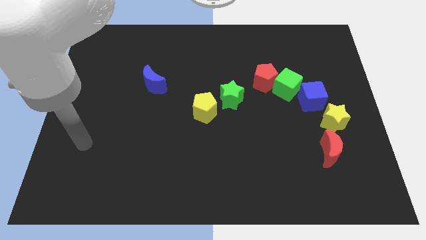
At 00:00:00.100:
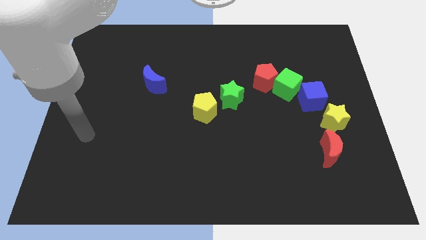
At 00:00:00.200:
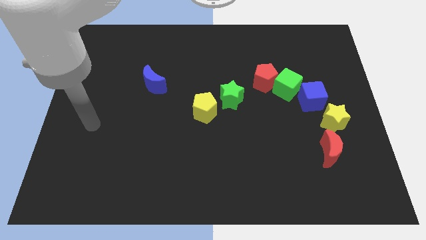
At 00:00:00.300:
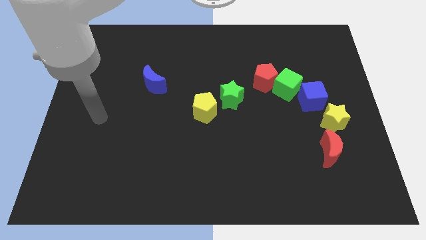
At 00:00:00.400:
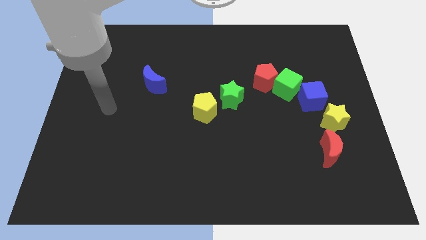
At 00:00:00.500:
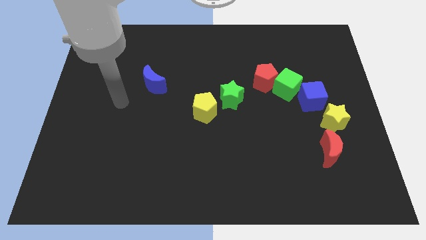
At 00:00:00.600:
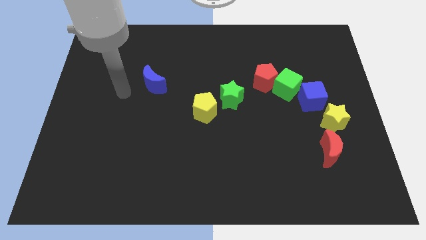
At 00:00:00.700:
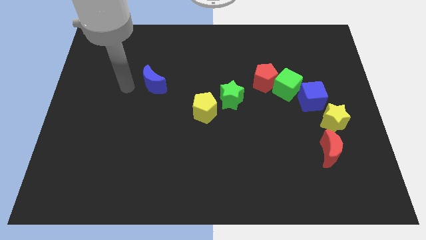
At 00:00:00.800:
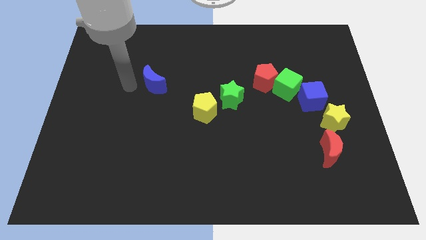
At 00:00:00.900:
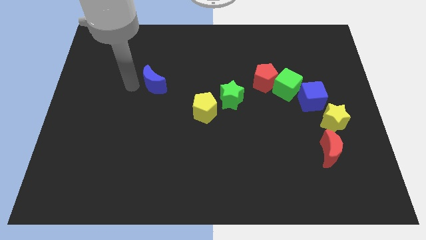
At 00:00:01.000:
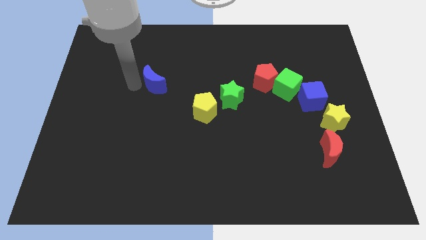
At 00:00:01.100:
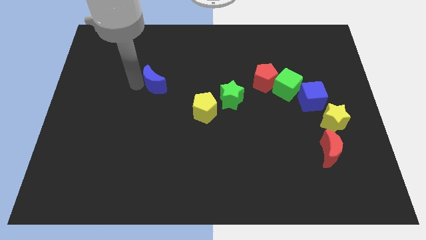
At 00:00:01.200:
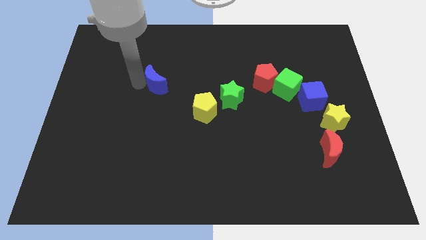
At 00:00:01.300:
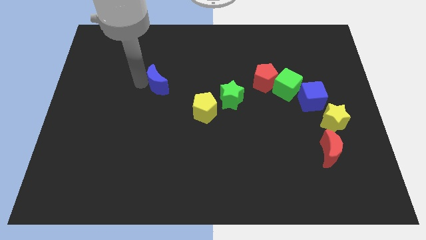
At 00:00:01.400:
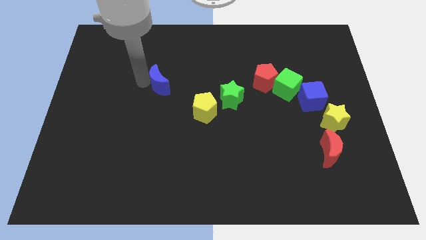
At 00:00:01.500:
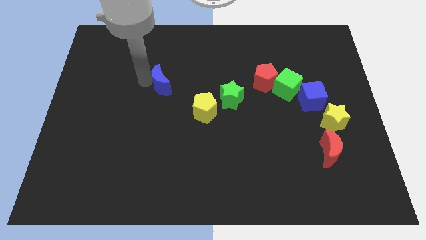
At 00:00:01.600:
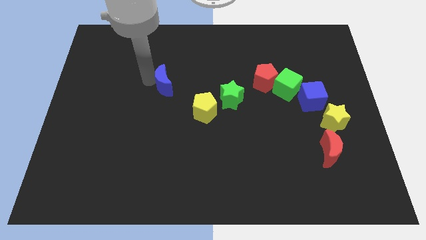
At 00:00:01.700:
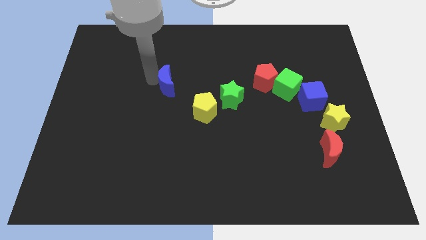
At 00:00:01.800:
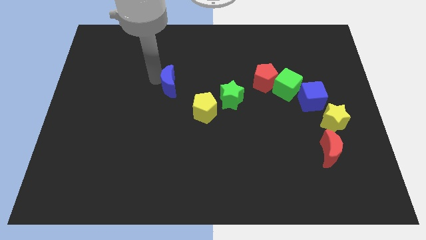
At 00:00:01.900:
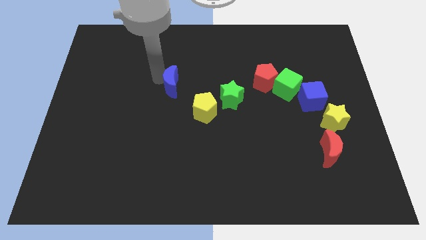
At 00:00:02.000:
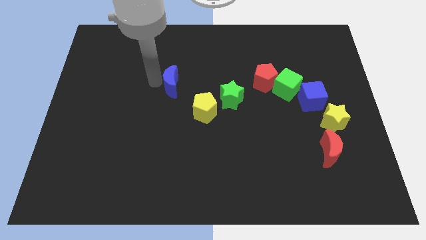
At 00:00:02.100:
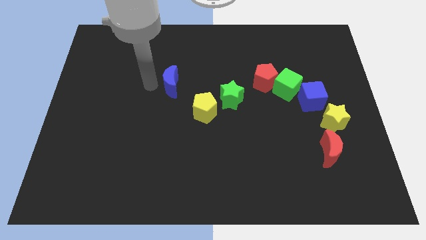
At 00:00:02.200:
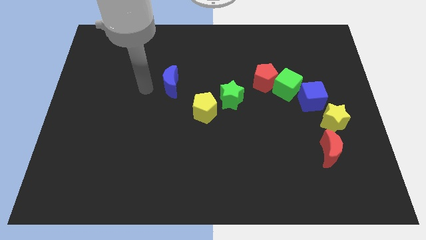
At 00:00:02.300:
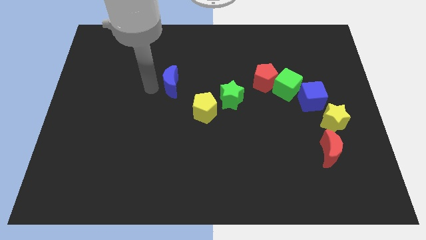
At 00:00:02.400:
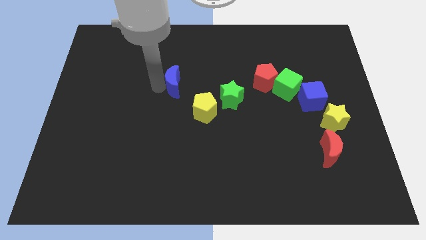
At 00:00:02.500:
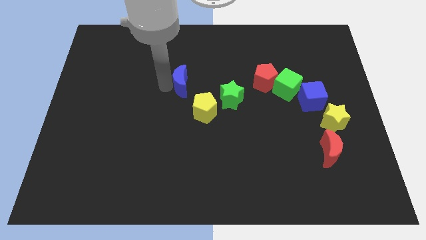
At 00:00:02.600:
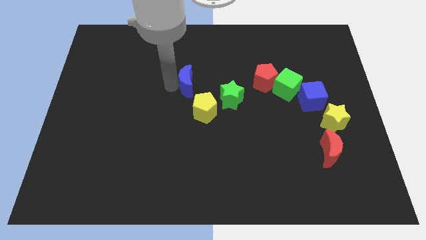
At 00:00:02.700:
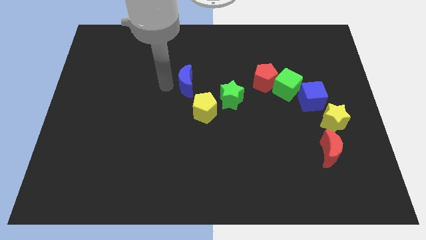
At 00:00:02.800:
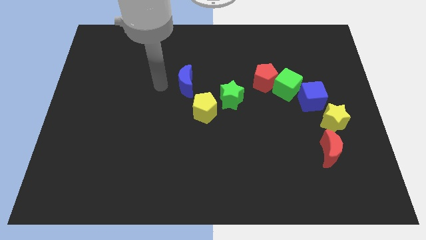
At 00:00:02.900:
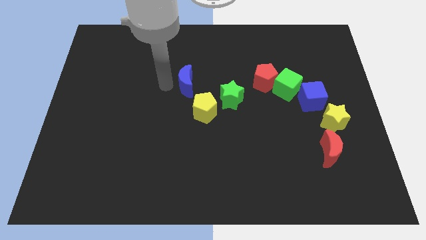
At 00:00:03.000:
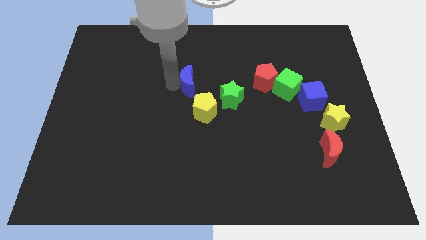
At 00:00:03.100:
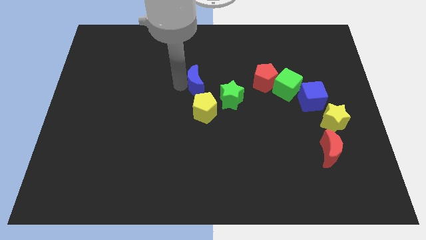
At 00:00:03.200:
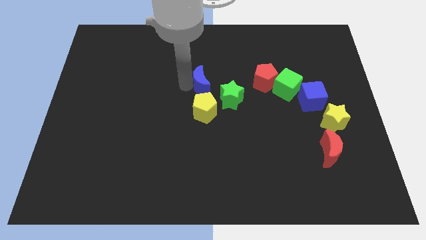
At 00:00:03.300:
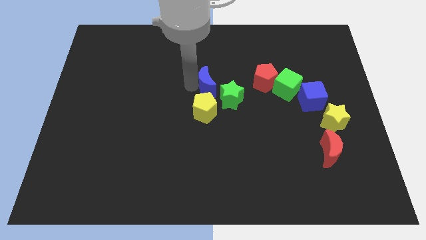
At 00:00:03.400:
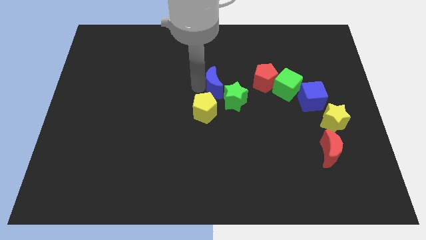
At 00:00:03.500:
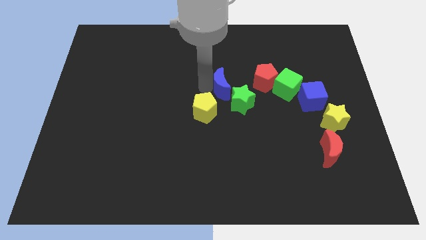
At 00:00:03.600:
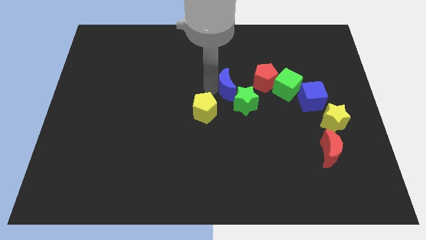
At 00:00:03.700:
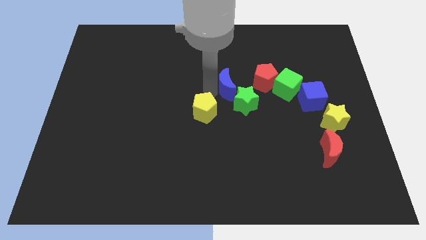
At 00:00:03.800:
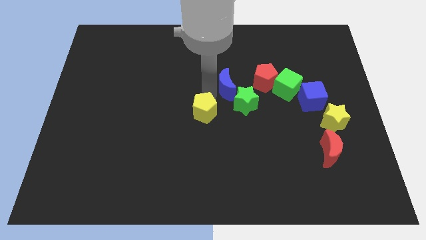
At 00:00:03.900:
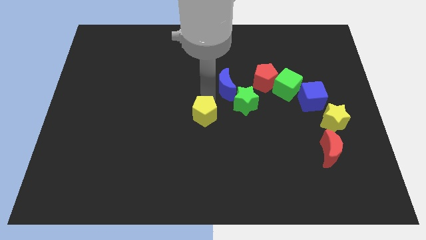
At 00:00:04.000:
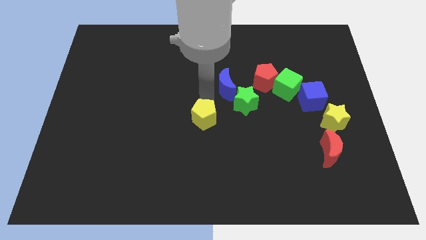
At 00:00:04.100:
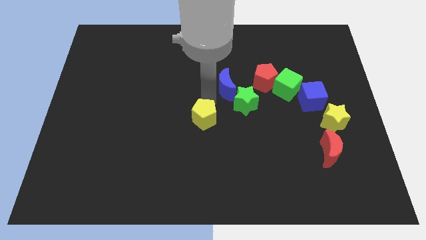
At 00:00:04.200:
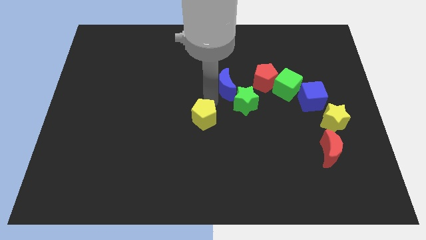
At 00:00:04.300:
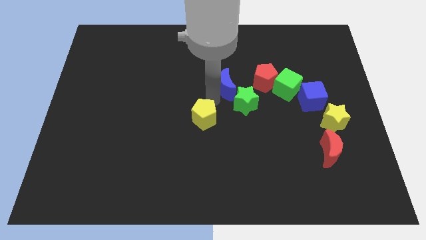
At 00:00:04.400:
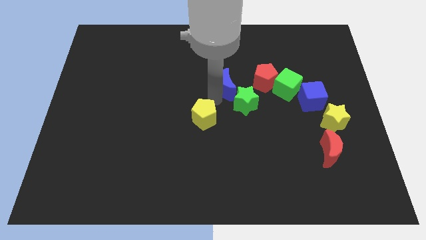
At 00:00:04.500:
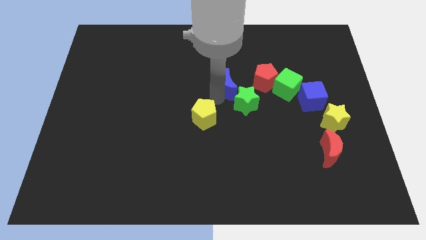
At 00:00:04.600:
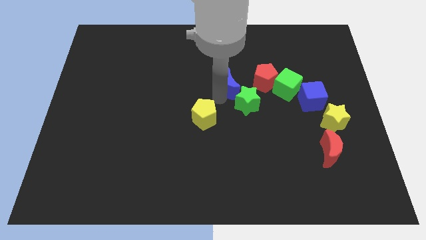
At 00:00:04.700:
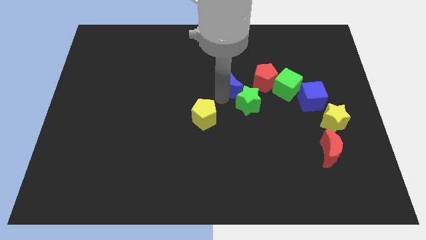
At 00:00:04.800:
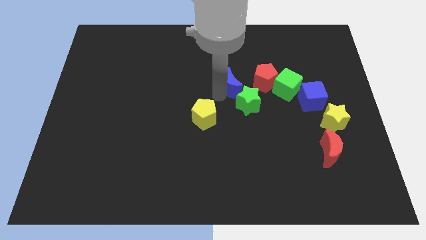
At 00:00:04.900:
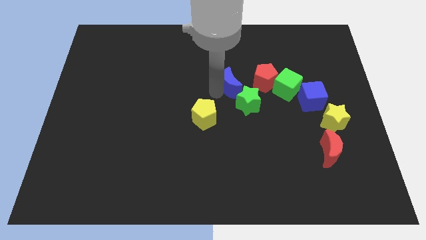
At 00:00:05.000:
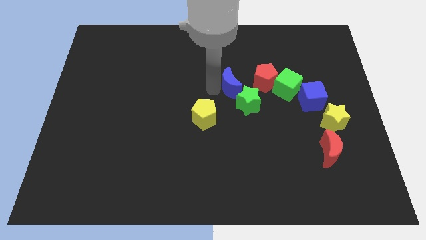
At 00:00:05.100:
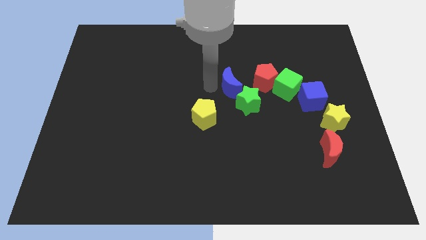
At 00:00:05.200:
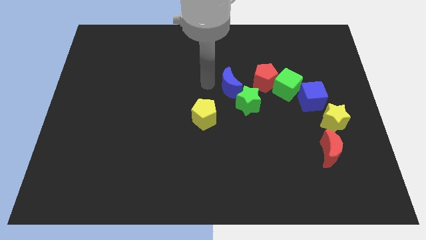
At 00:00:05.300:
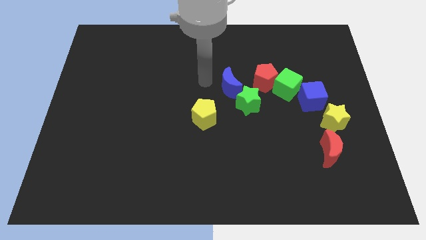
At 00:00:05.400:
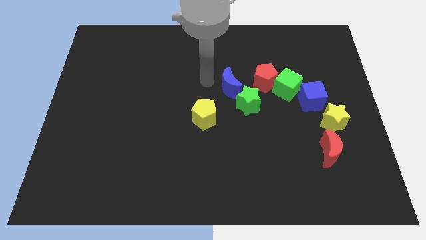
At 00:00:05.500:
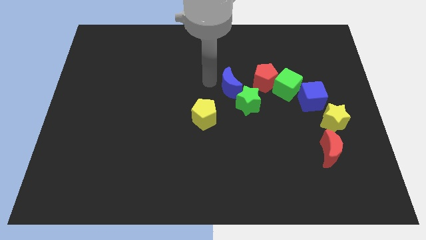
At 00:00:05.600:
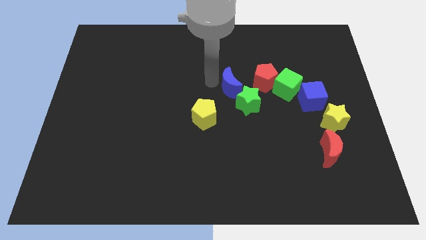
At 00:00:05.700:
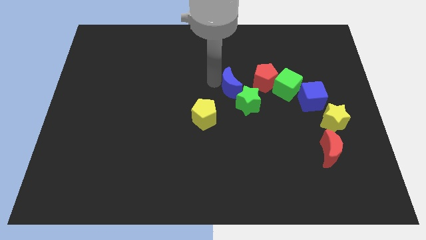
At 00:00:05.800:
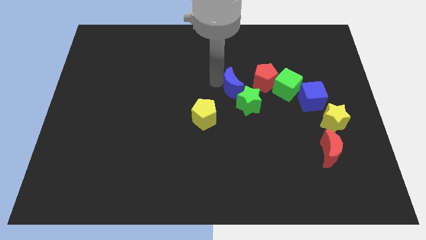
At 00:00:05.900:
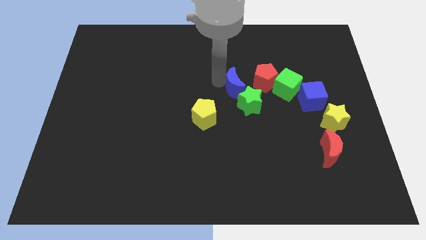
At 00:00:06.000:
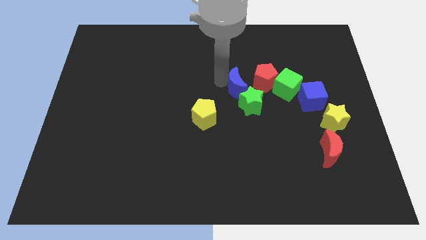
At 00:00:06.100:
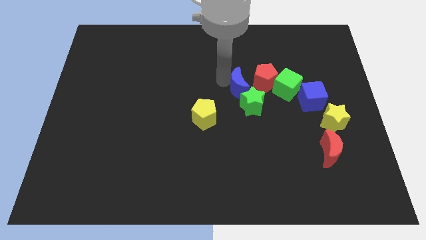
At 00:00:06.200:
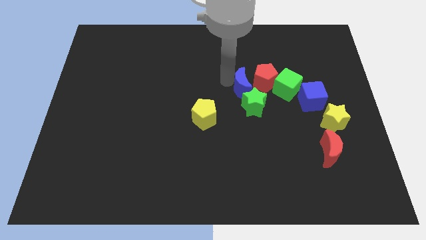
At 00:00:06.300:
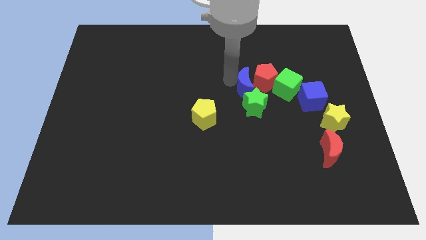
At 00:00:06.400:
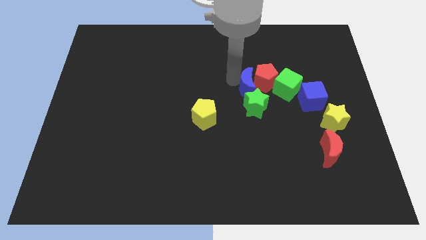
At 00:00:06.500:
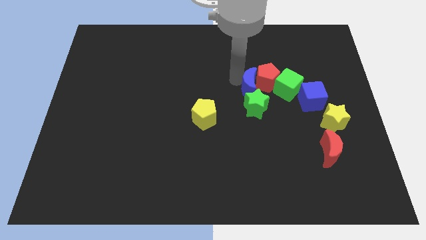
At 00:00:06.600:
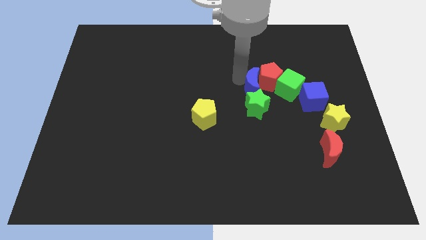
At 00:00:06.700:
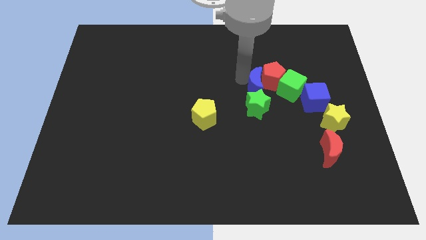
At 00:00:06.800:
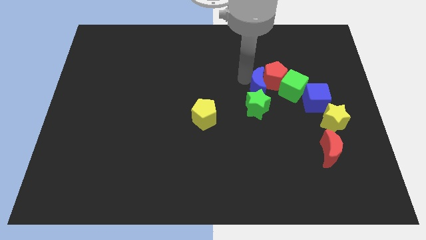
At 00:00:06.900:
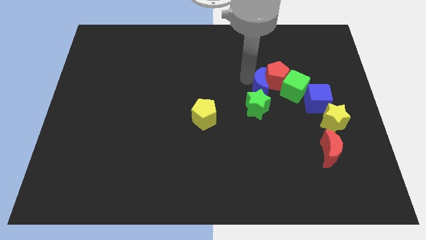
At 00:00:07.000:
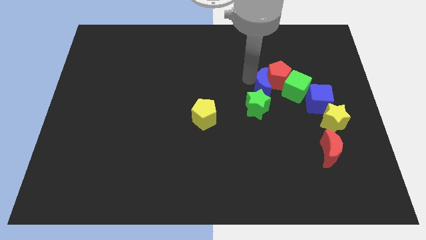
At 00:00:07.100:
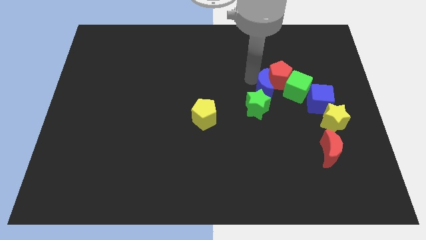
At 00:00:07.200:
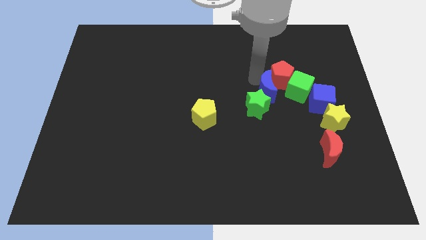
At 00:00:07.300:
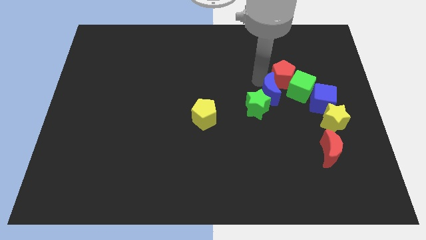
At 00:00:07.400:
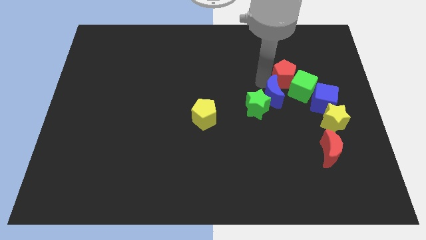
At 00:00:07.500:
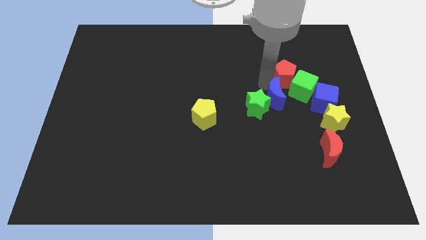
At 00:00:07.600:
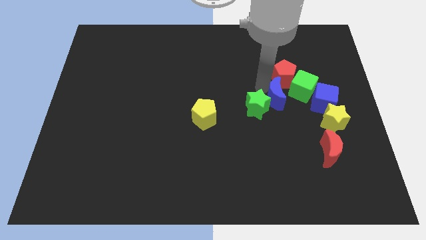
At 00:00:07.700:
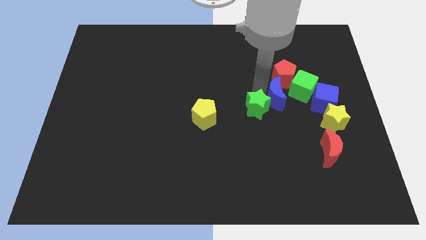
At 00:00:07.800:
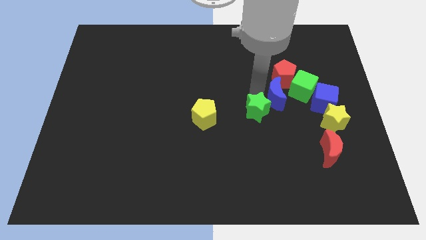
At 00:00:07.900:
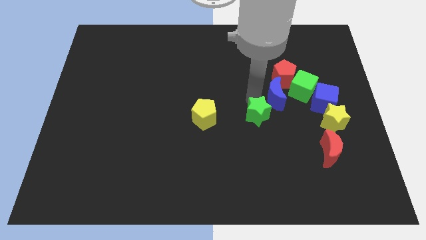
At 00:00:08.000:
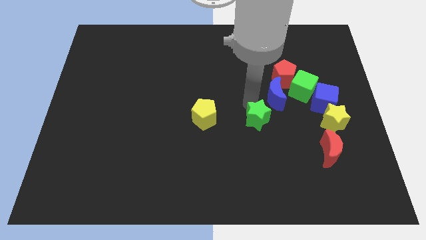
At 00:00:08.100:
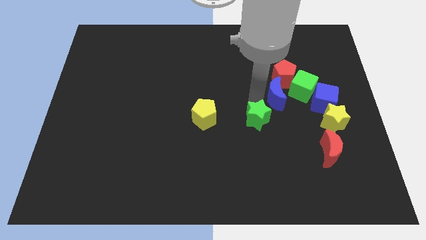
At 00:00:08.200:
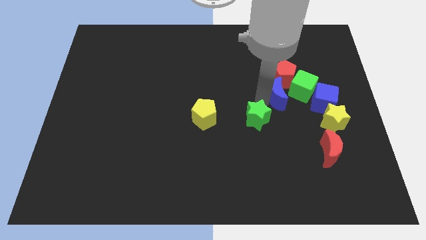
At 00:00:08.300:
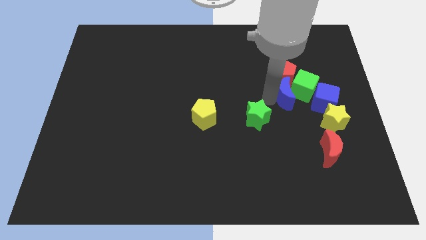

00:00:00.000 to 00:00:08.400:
put the blue moon to the green cube
